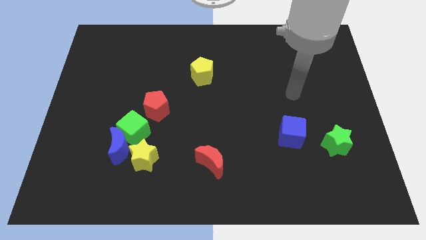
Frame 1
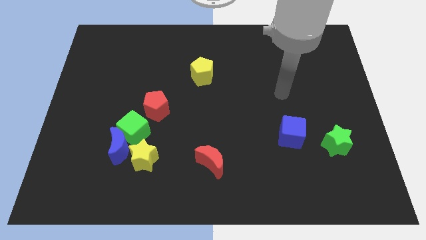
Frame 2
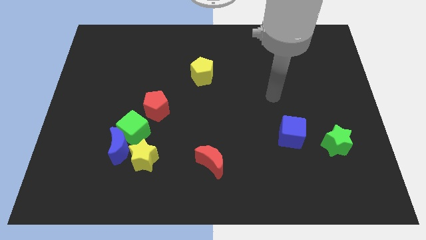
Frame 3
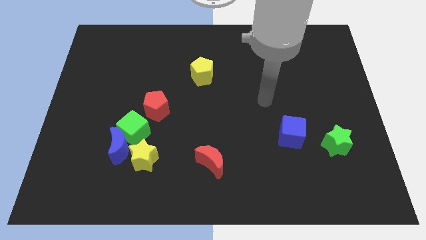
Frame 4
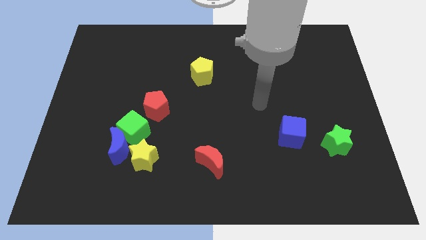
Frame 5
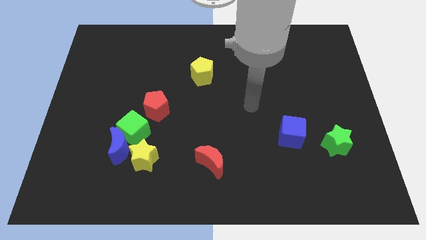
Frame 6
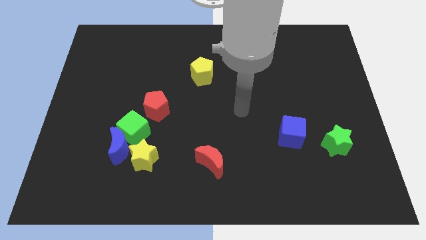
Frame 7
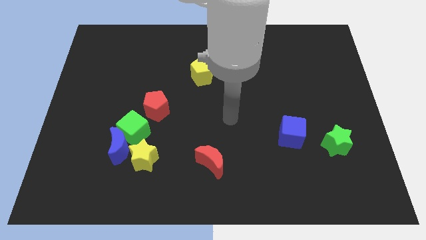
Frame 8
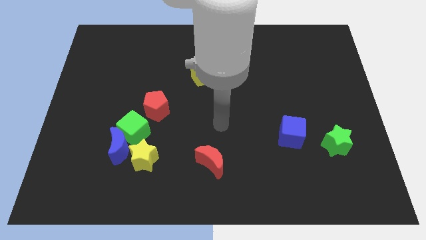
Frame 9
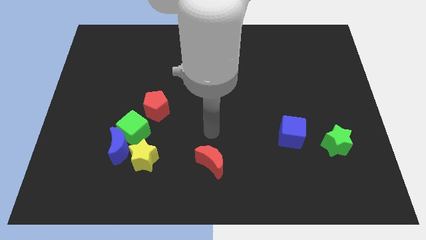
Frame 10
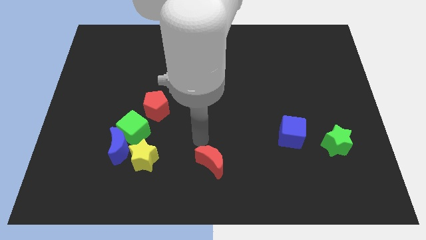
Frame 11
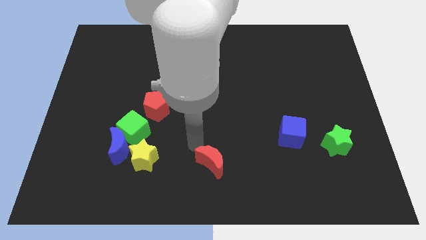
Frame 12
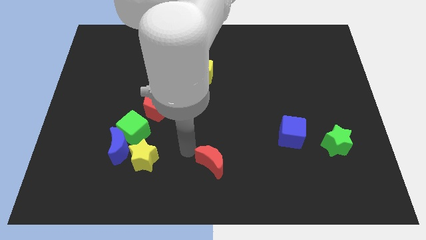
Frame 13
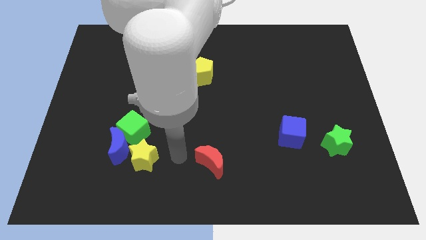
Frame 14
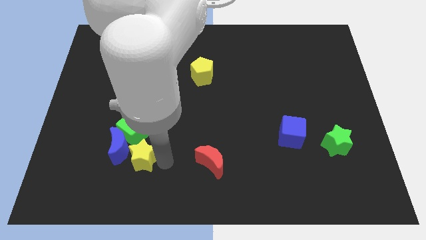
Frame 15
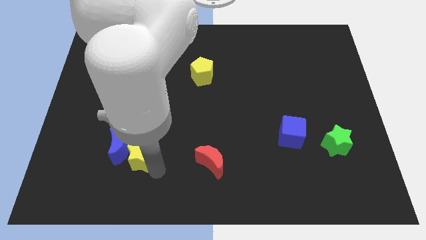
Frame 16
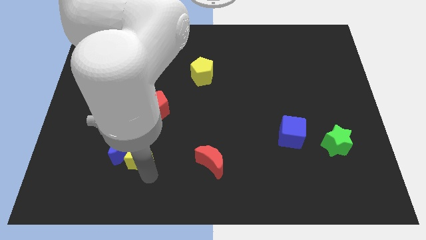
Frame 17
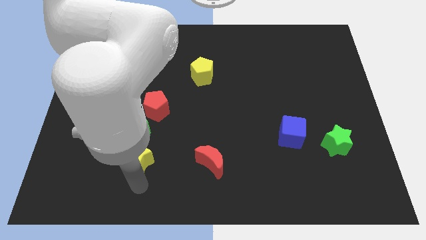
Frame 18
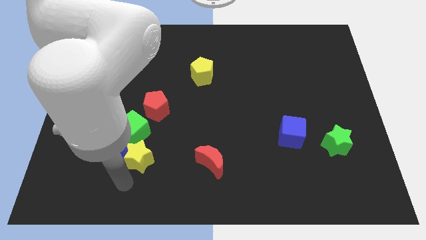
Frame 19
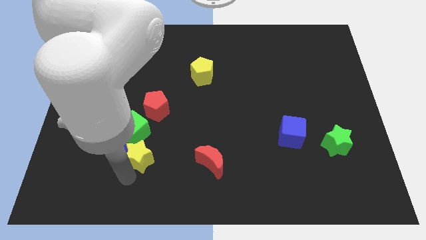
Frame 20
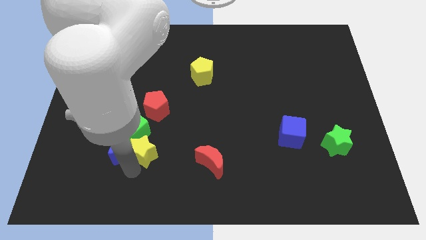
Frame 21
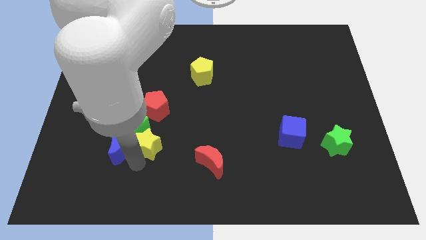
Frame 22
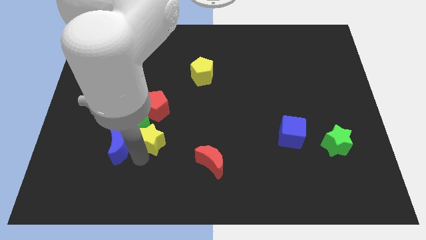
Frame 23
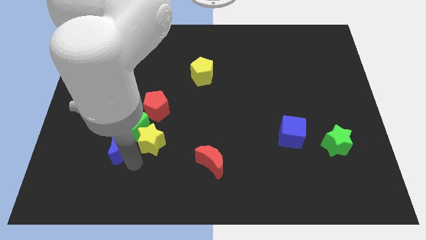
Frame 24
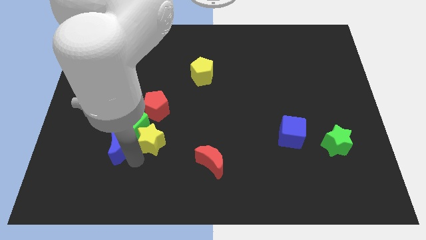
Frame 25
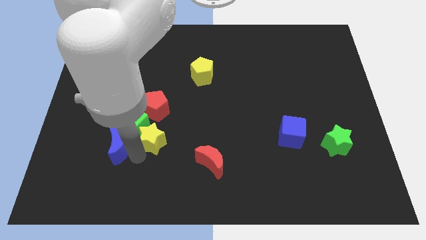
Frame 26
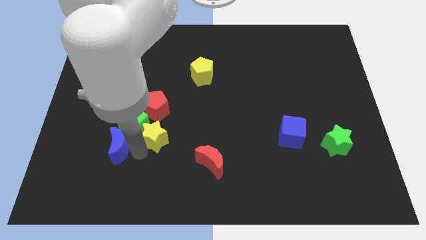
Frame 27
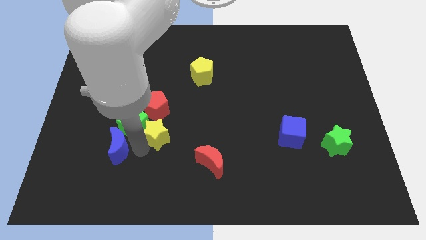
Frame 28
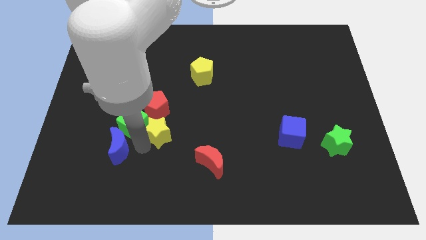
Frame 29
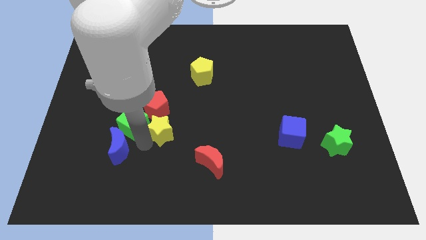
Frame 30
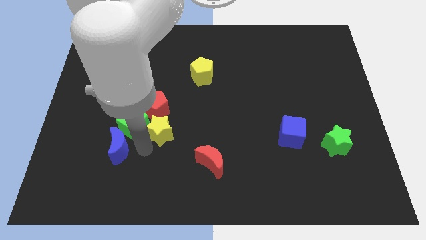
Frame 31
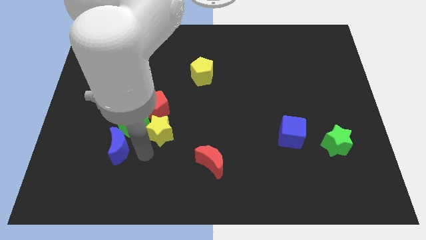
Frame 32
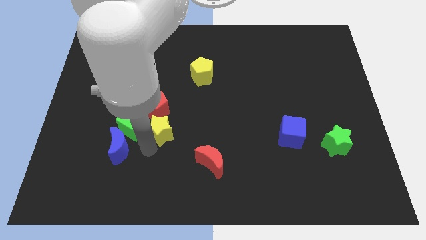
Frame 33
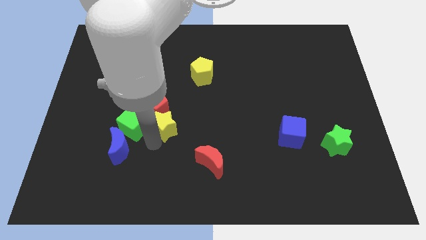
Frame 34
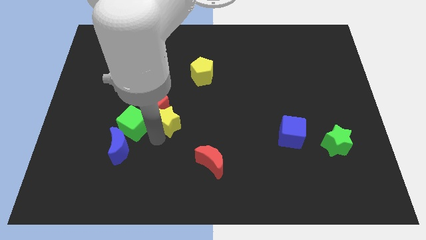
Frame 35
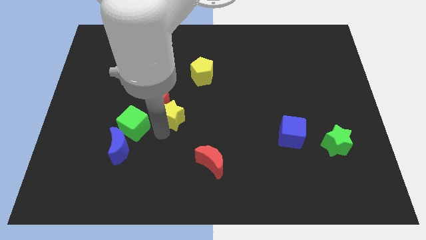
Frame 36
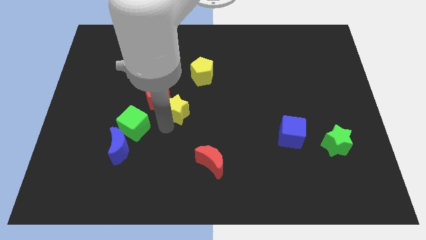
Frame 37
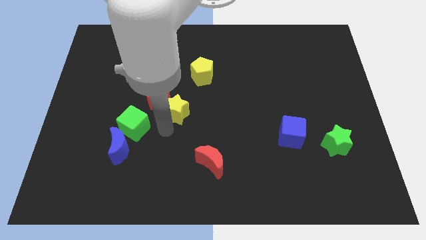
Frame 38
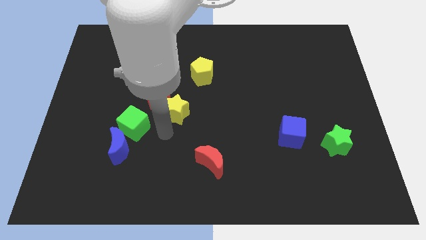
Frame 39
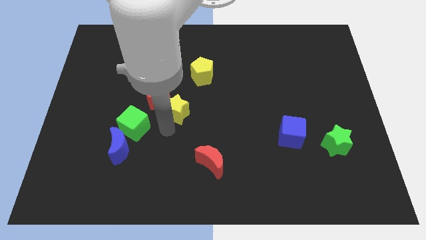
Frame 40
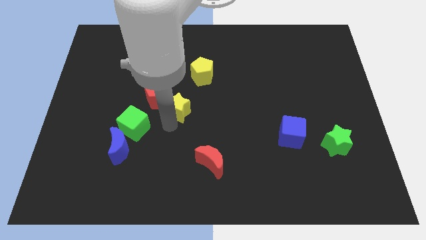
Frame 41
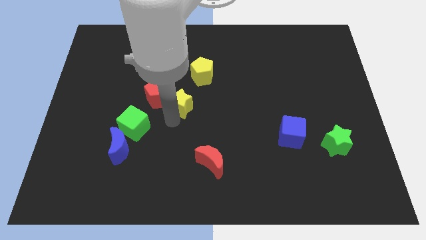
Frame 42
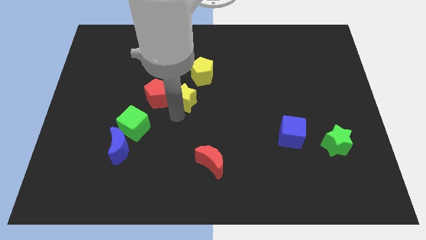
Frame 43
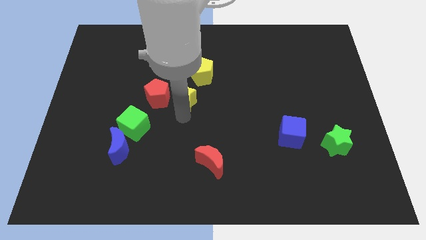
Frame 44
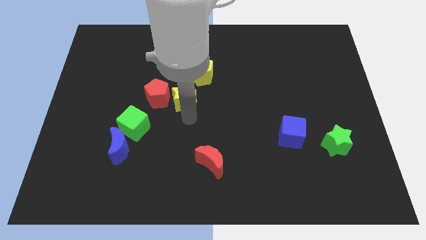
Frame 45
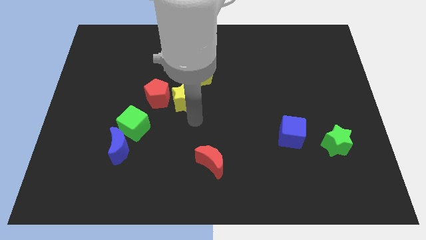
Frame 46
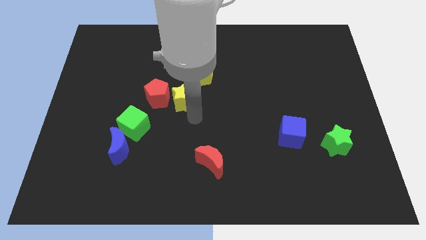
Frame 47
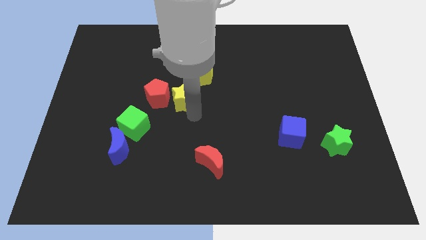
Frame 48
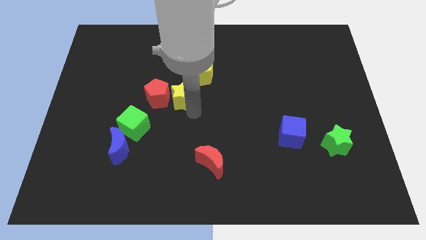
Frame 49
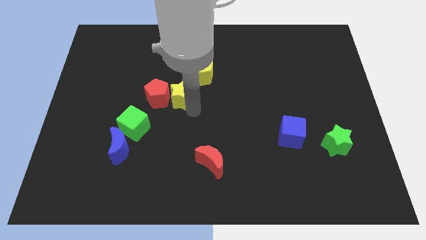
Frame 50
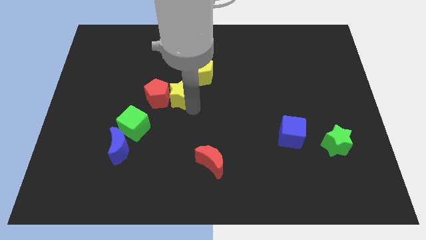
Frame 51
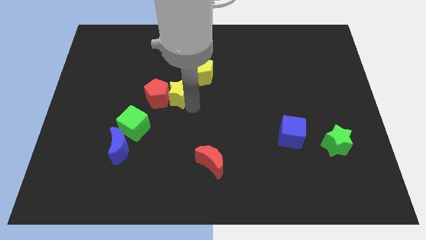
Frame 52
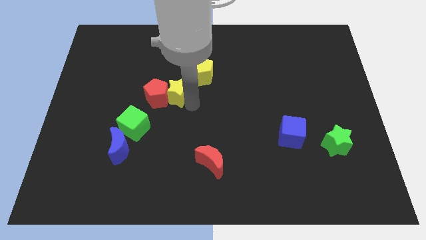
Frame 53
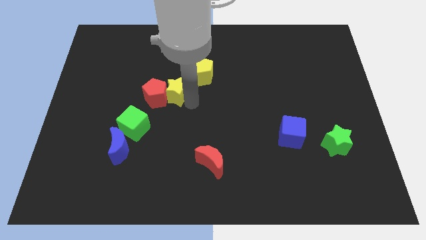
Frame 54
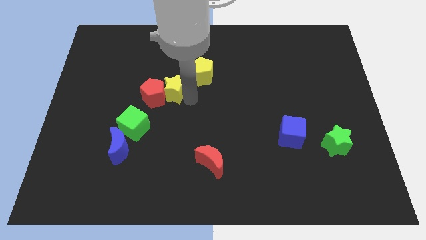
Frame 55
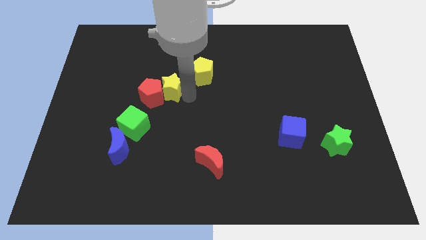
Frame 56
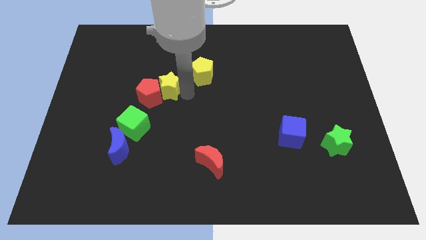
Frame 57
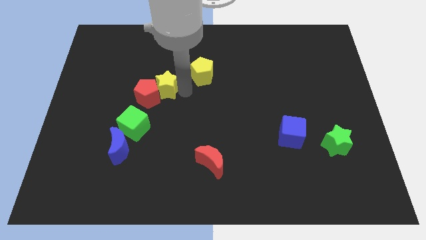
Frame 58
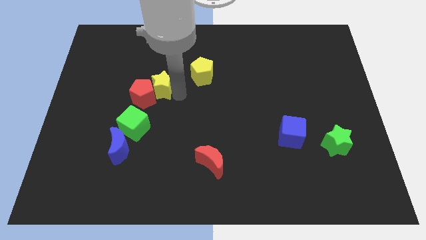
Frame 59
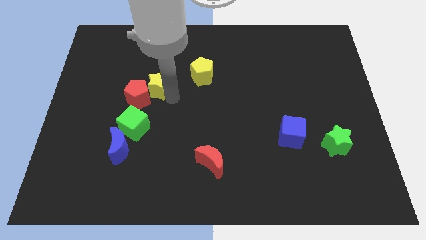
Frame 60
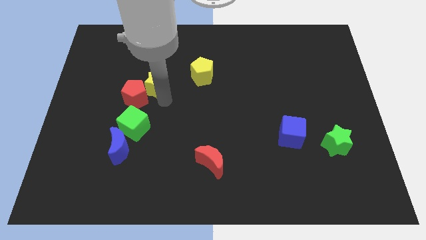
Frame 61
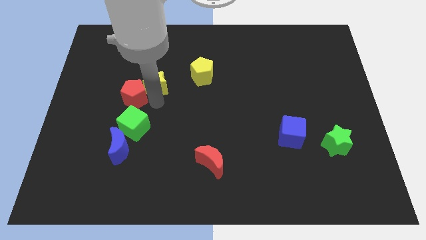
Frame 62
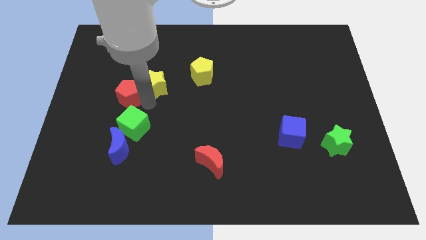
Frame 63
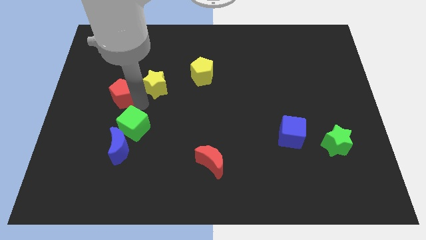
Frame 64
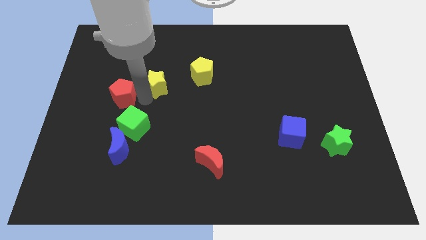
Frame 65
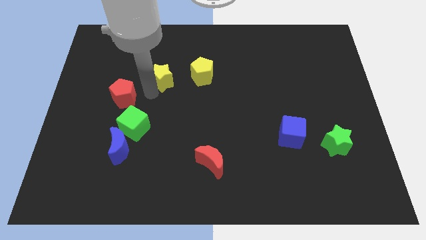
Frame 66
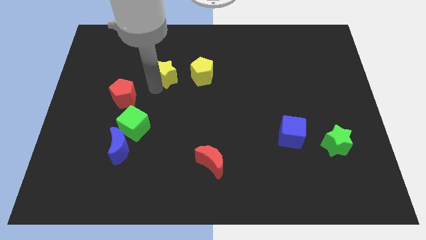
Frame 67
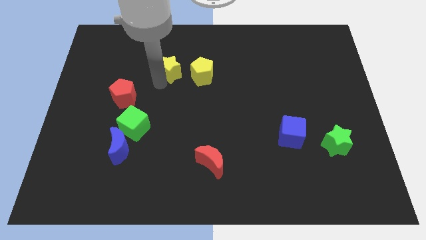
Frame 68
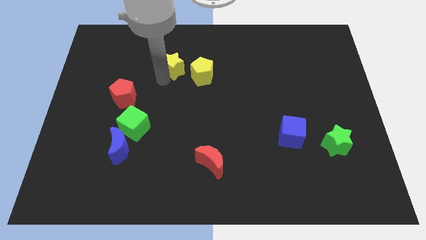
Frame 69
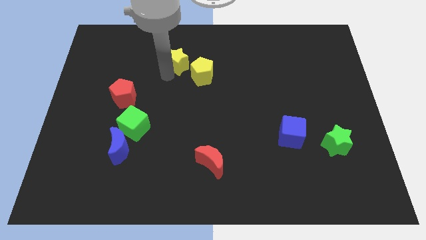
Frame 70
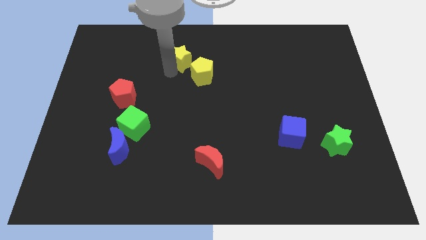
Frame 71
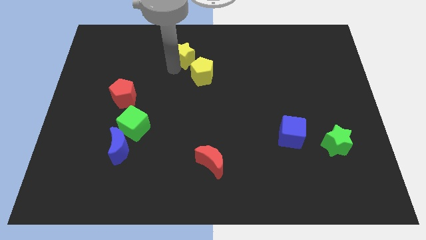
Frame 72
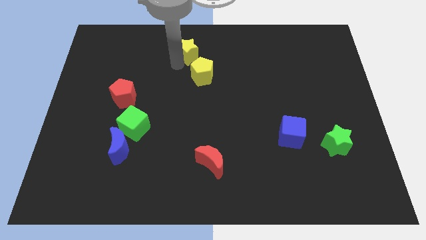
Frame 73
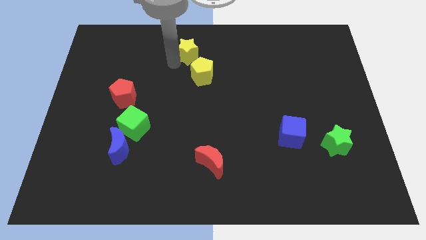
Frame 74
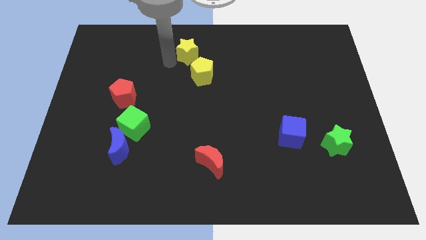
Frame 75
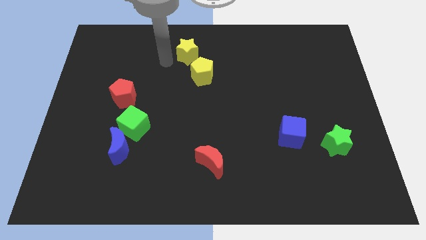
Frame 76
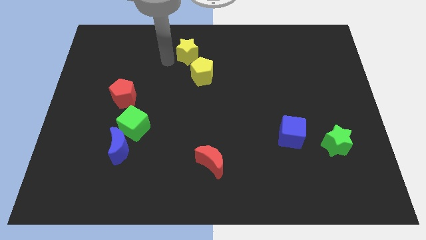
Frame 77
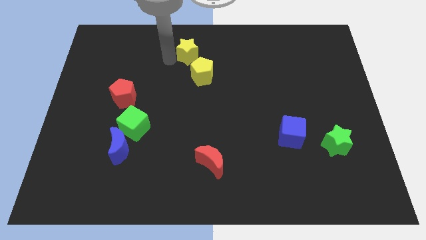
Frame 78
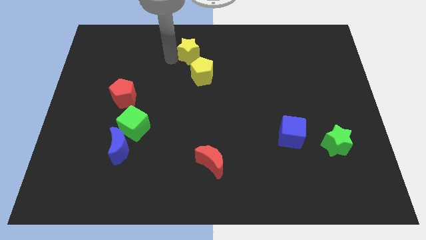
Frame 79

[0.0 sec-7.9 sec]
slide the yellow star to the top

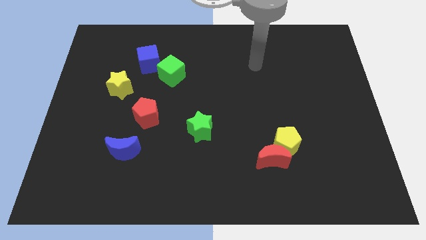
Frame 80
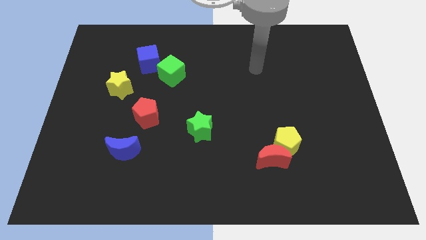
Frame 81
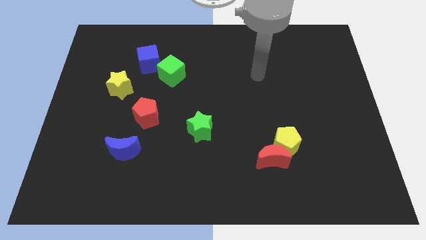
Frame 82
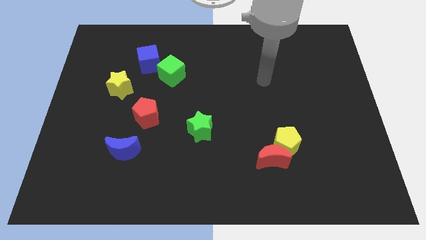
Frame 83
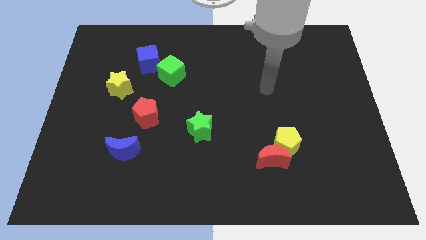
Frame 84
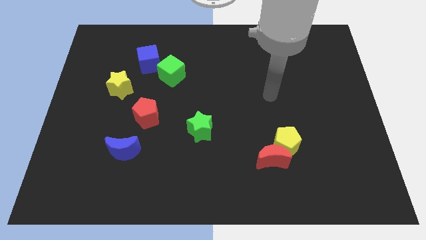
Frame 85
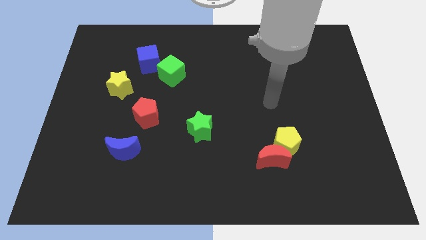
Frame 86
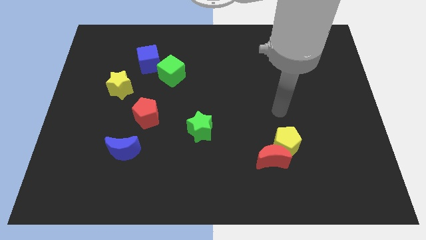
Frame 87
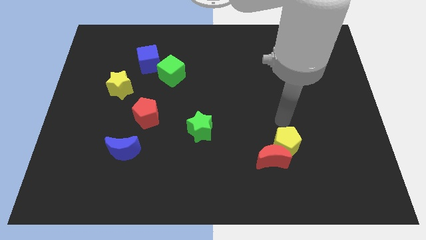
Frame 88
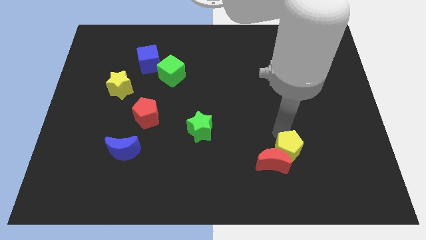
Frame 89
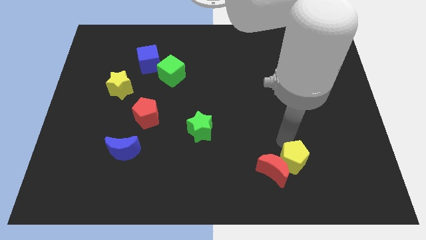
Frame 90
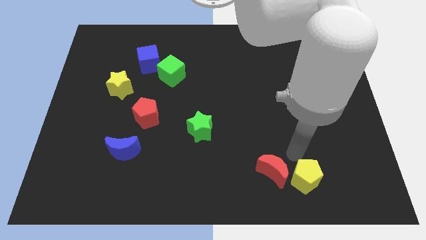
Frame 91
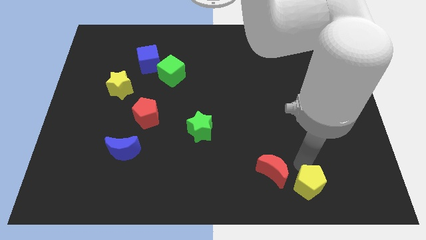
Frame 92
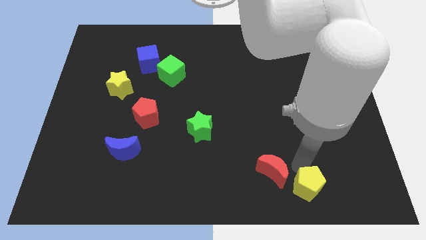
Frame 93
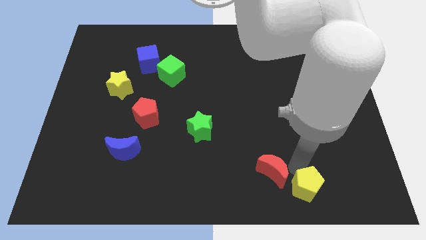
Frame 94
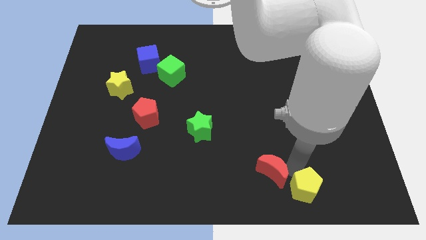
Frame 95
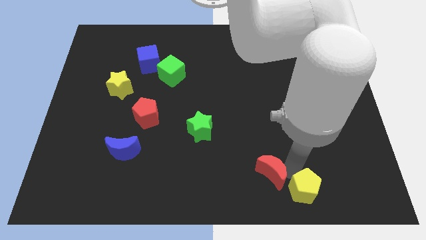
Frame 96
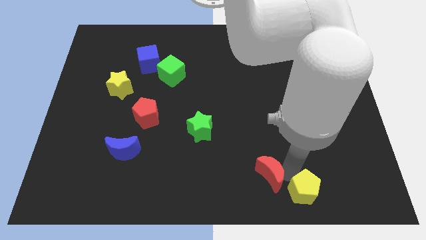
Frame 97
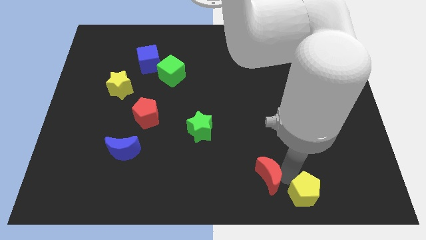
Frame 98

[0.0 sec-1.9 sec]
push the red moon to the bottom
